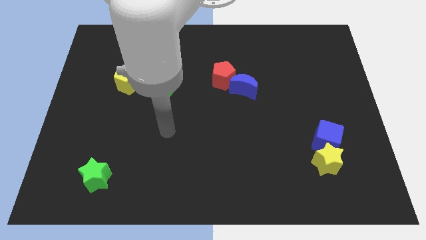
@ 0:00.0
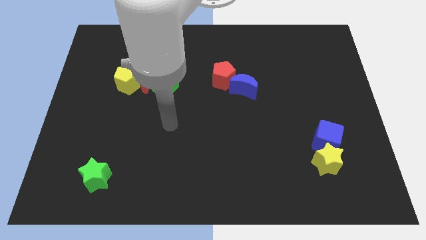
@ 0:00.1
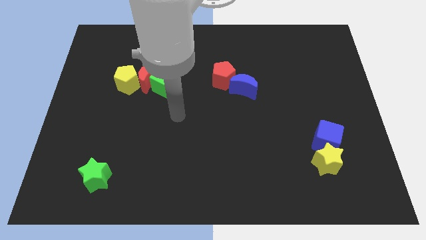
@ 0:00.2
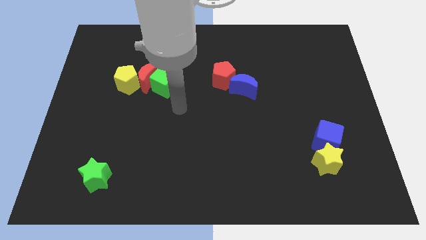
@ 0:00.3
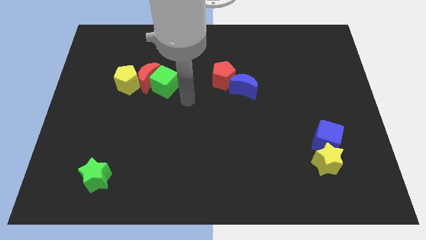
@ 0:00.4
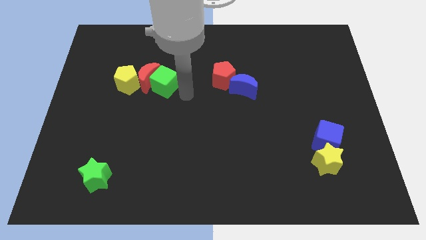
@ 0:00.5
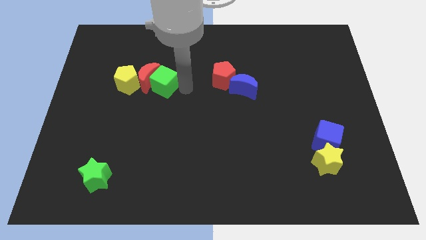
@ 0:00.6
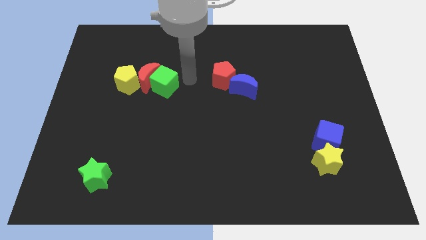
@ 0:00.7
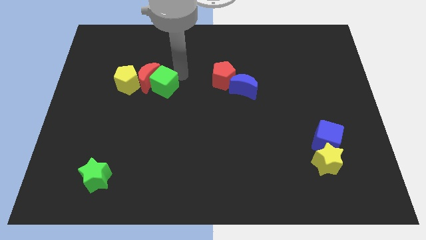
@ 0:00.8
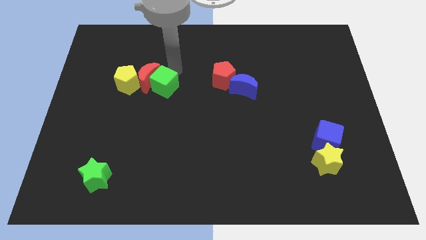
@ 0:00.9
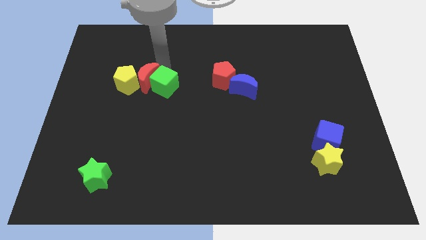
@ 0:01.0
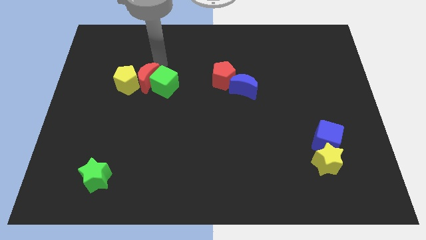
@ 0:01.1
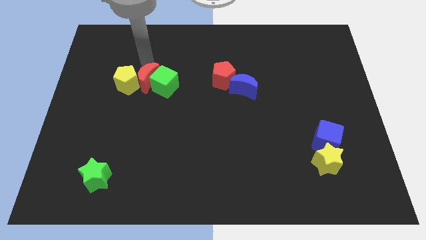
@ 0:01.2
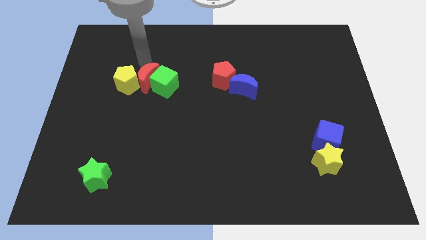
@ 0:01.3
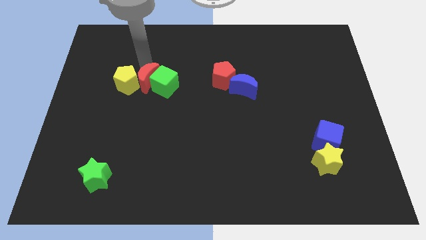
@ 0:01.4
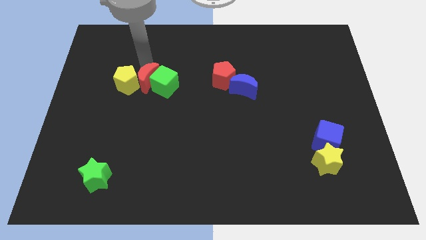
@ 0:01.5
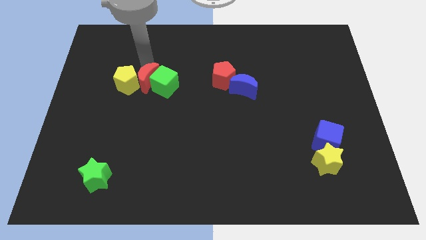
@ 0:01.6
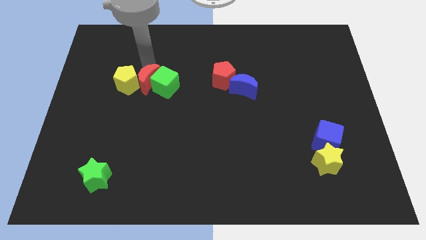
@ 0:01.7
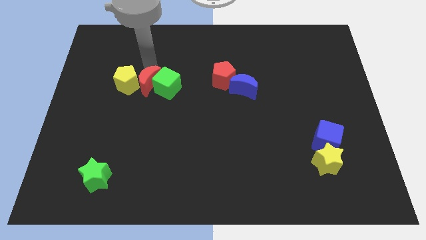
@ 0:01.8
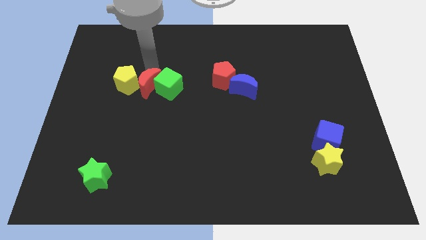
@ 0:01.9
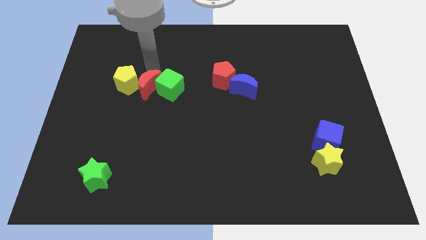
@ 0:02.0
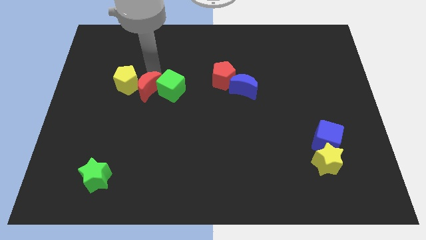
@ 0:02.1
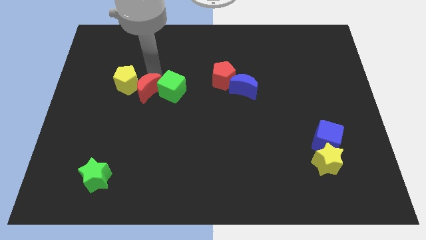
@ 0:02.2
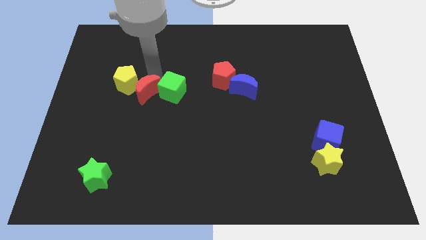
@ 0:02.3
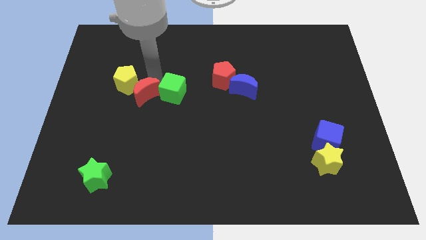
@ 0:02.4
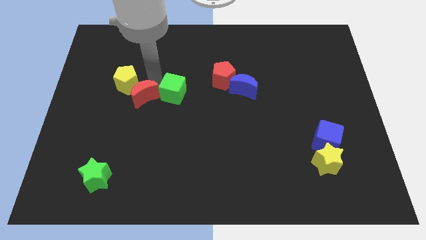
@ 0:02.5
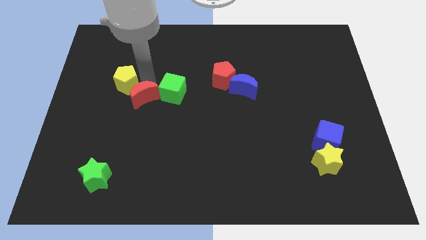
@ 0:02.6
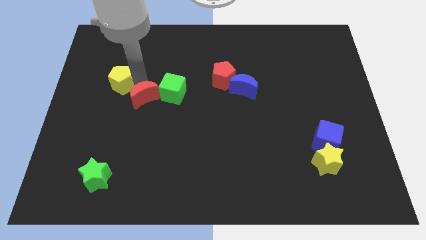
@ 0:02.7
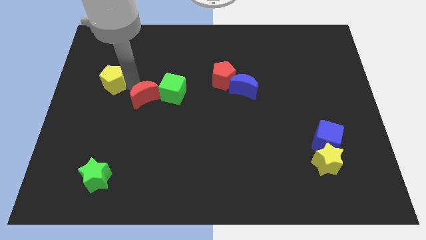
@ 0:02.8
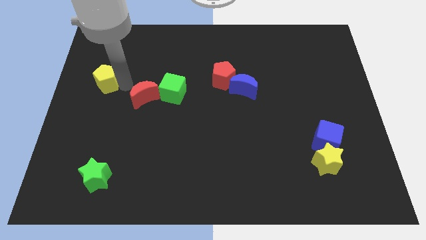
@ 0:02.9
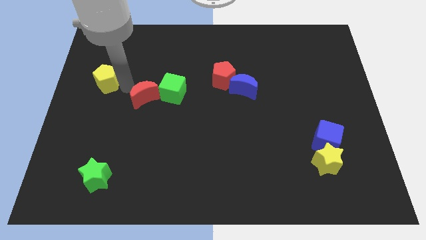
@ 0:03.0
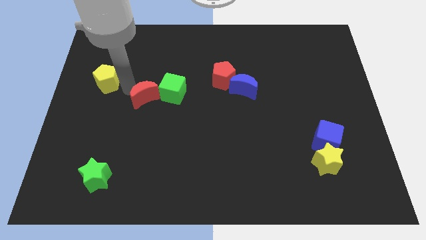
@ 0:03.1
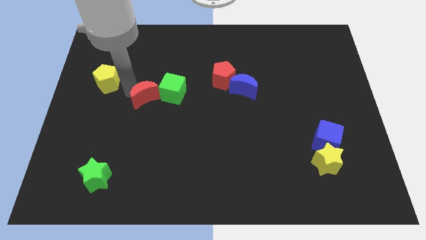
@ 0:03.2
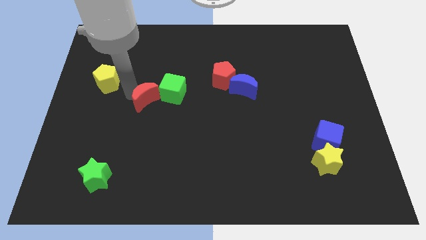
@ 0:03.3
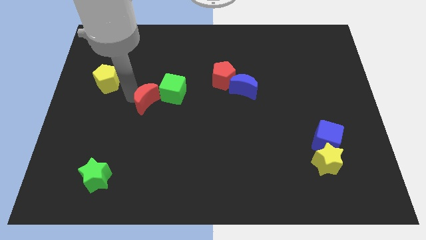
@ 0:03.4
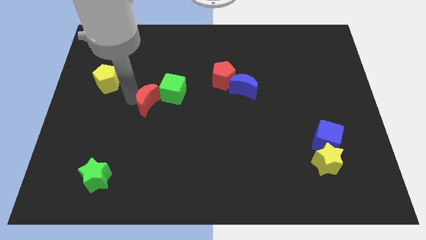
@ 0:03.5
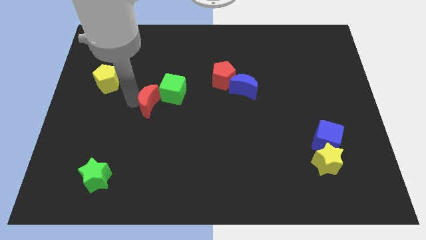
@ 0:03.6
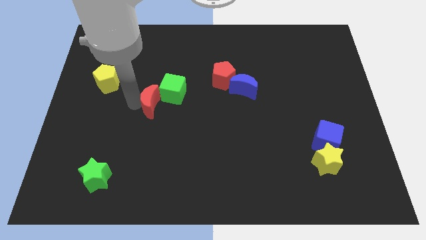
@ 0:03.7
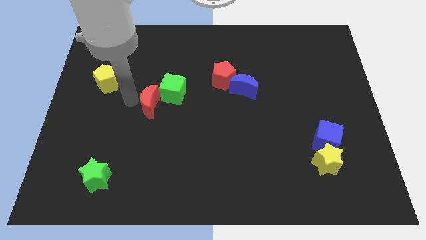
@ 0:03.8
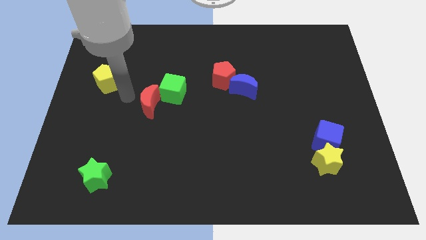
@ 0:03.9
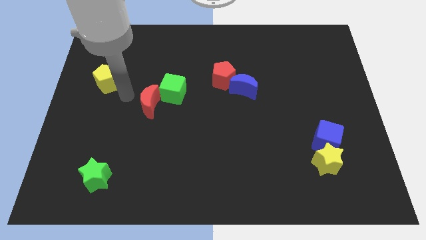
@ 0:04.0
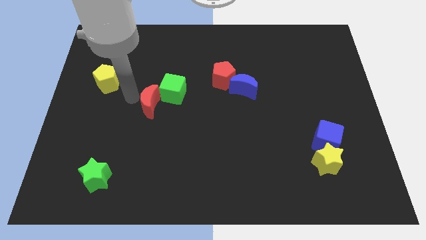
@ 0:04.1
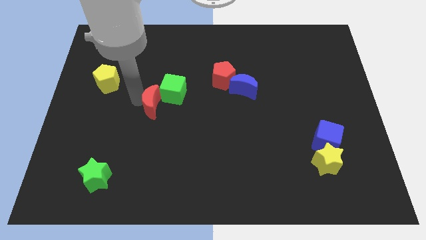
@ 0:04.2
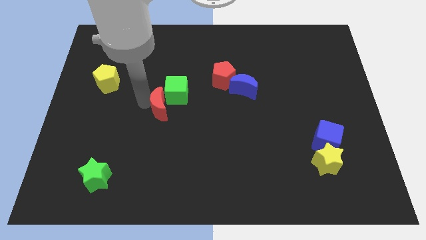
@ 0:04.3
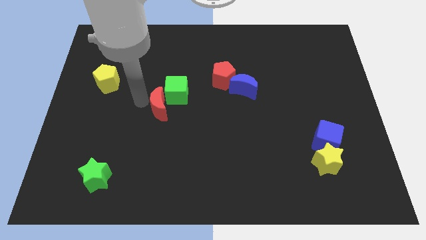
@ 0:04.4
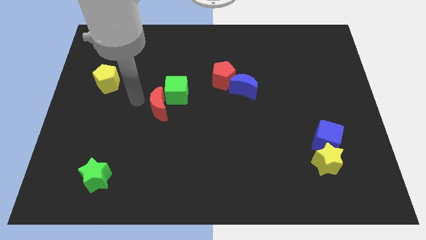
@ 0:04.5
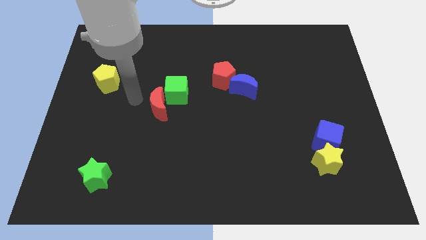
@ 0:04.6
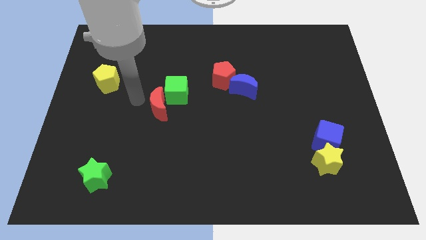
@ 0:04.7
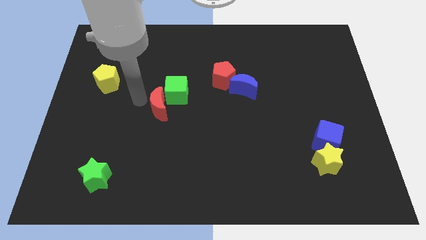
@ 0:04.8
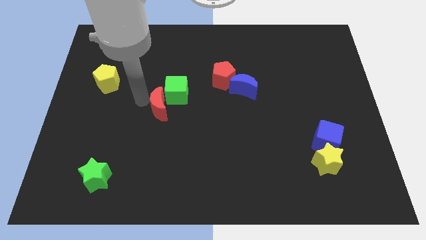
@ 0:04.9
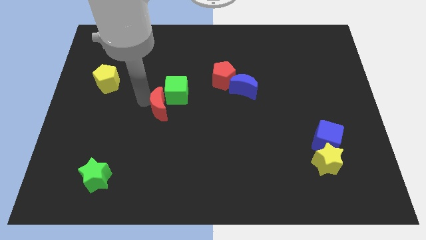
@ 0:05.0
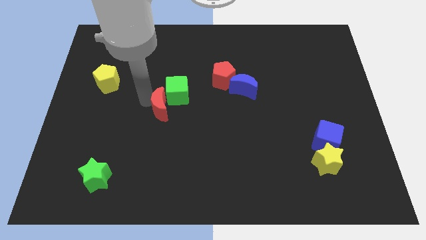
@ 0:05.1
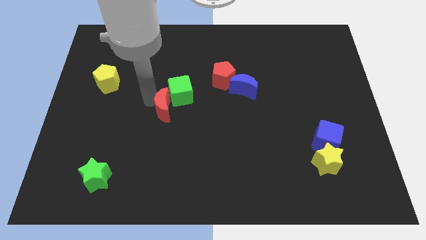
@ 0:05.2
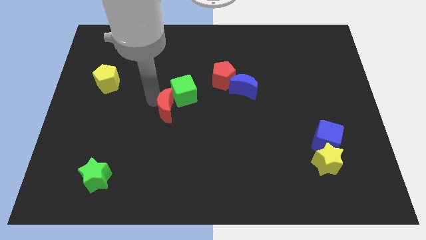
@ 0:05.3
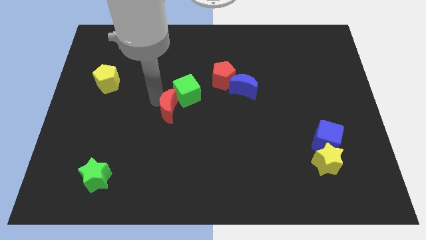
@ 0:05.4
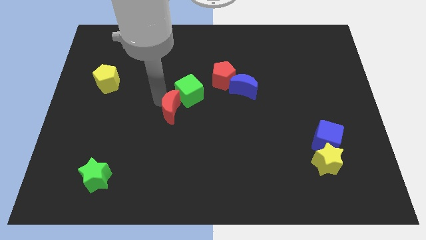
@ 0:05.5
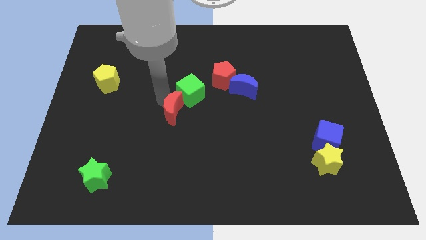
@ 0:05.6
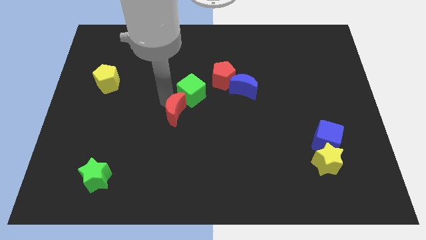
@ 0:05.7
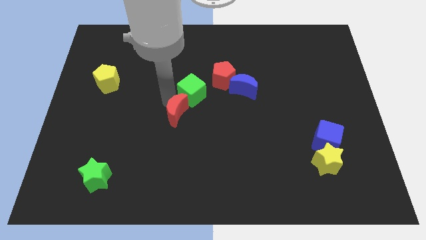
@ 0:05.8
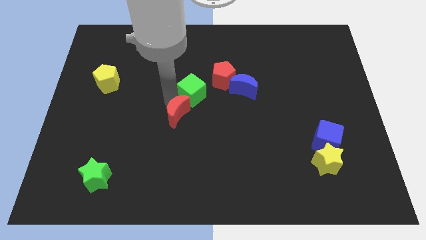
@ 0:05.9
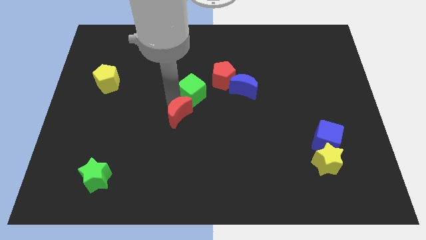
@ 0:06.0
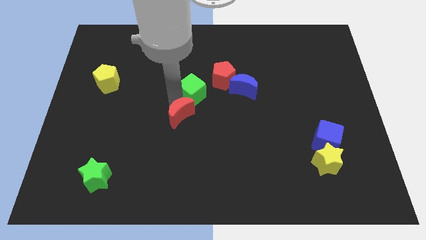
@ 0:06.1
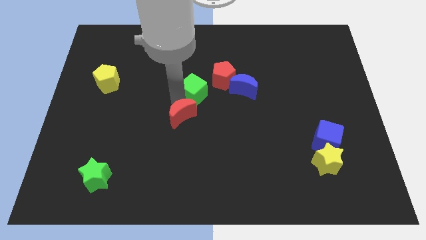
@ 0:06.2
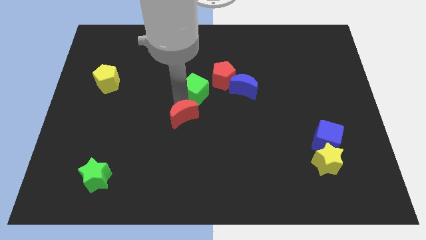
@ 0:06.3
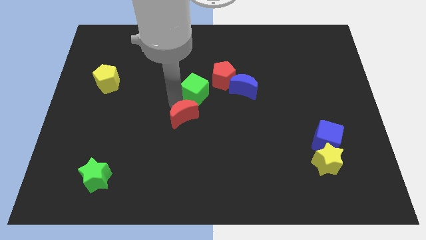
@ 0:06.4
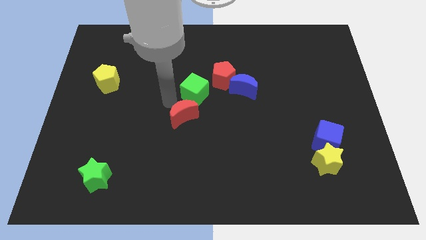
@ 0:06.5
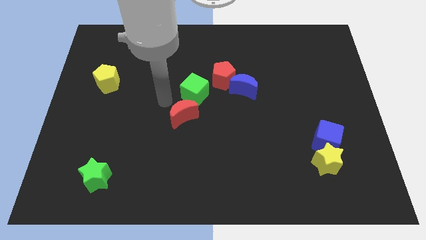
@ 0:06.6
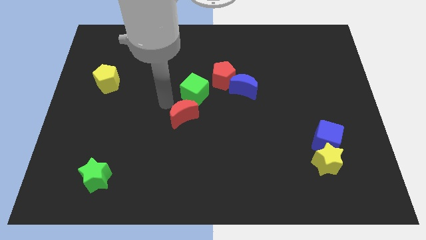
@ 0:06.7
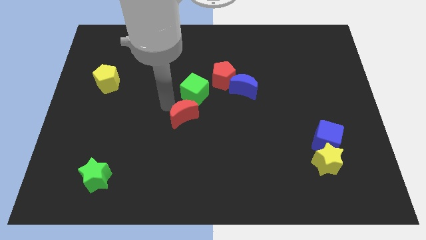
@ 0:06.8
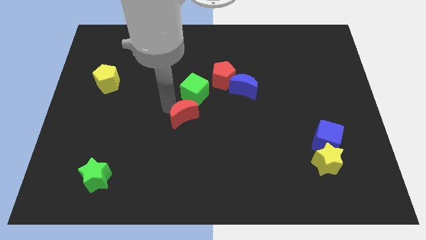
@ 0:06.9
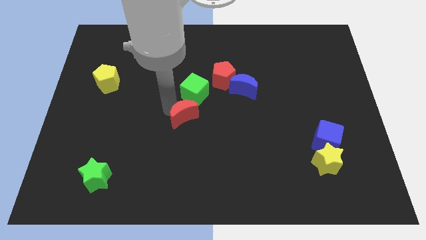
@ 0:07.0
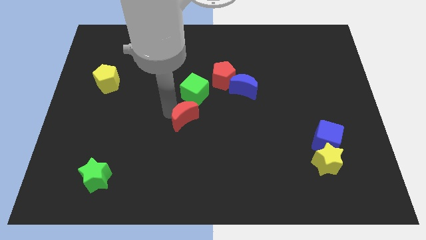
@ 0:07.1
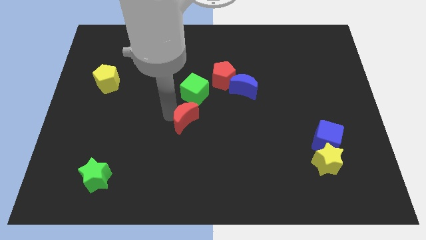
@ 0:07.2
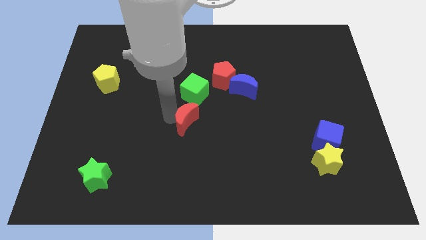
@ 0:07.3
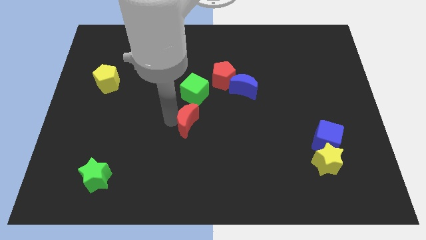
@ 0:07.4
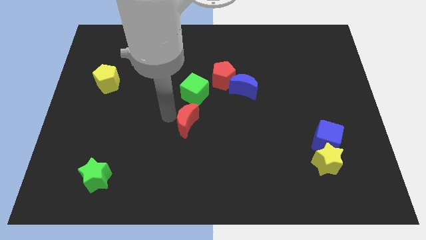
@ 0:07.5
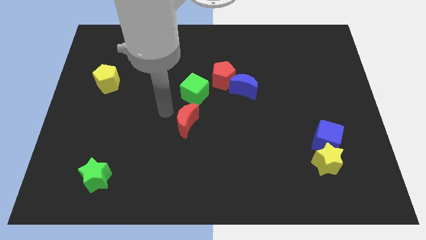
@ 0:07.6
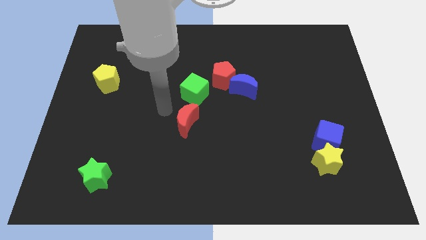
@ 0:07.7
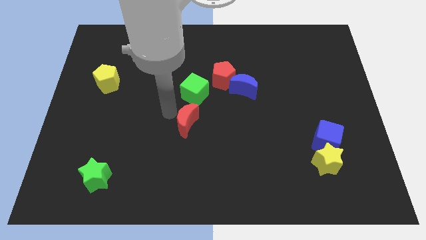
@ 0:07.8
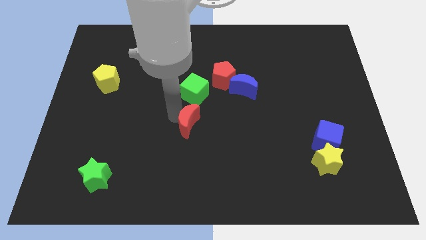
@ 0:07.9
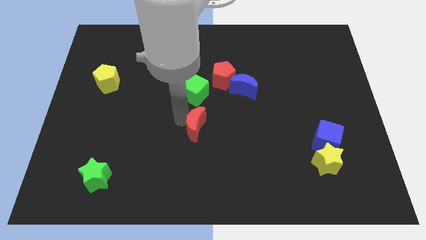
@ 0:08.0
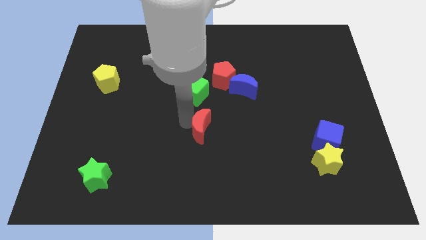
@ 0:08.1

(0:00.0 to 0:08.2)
slide the red moon down and to the right
